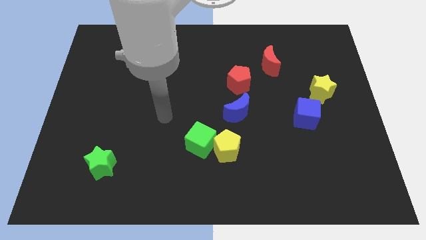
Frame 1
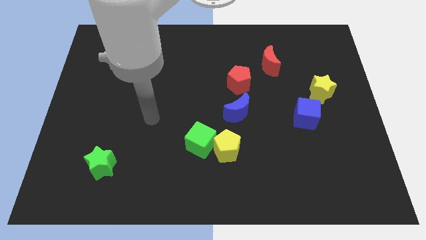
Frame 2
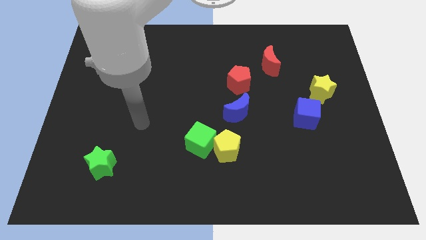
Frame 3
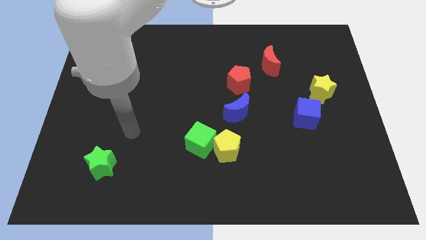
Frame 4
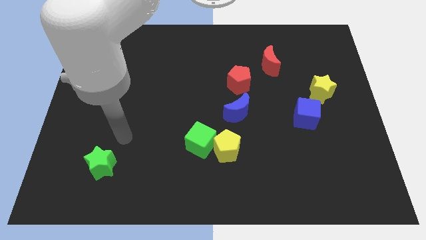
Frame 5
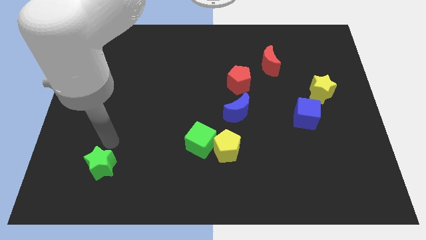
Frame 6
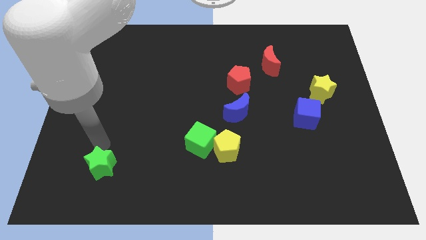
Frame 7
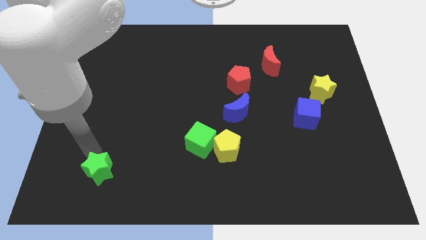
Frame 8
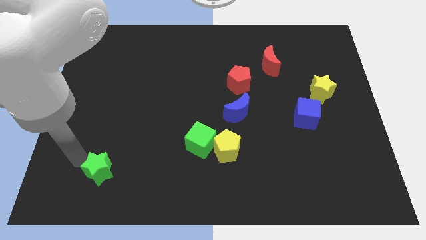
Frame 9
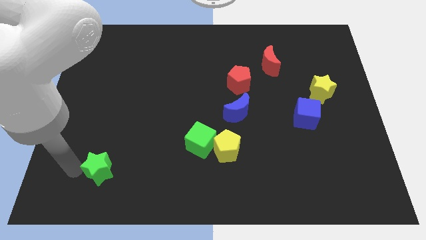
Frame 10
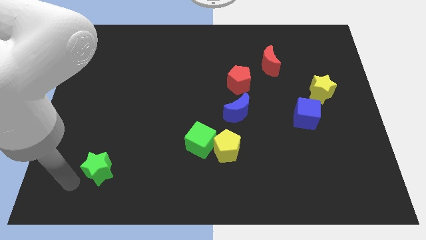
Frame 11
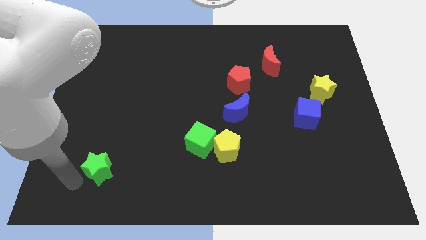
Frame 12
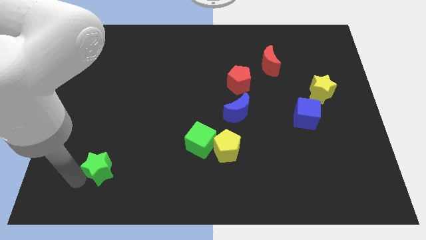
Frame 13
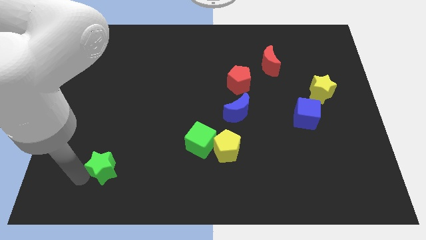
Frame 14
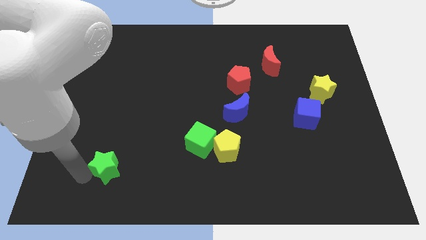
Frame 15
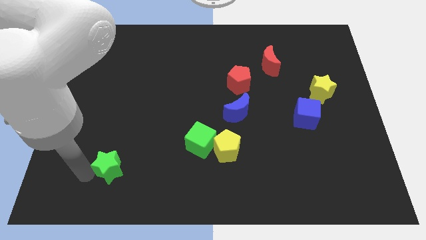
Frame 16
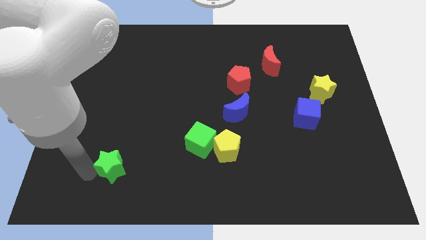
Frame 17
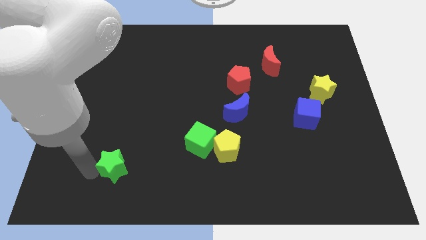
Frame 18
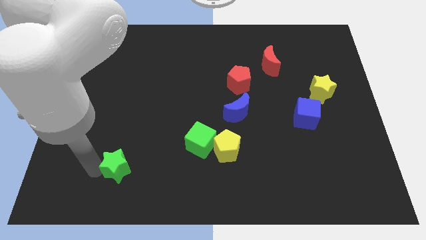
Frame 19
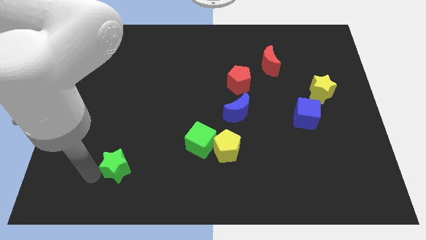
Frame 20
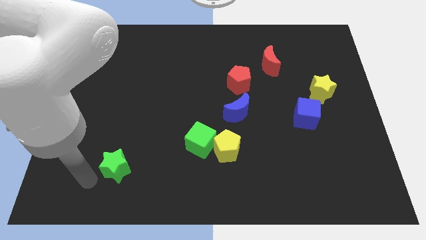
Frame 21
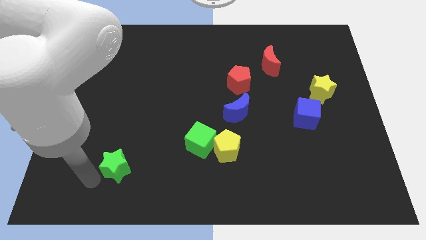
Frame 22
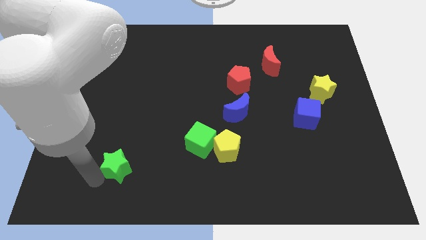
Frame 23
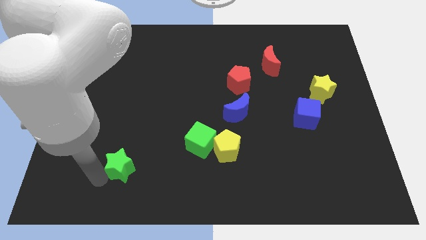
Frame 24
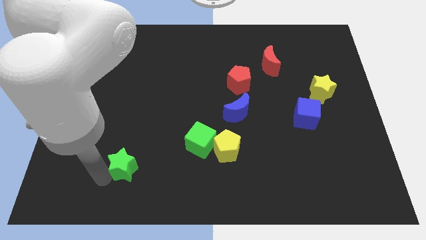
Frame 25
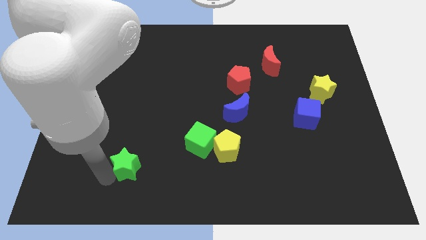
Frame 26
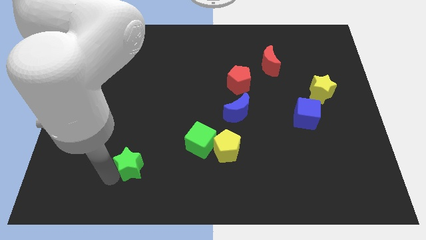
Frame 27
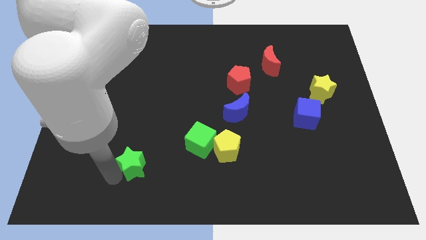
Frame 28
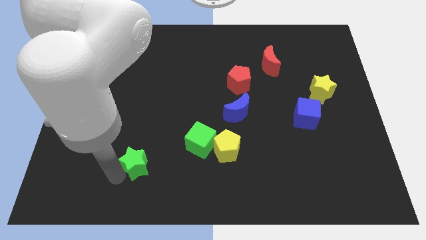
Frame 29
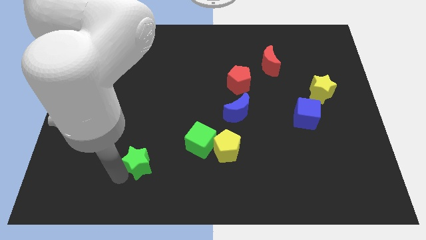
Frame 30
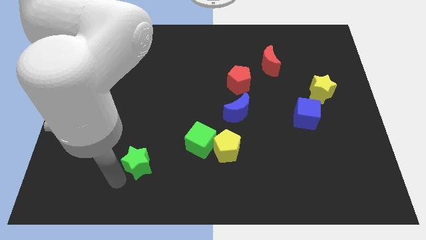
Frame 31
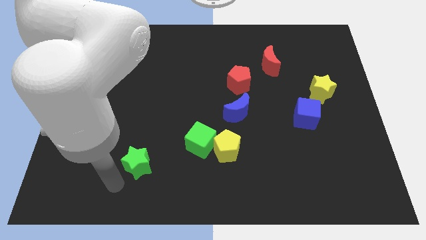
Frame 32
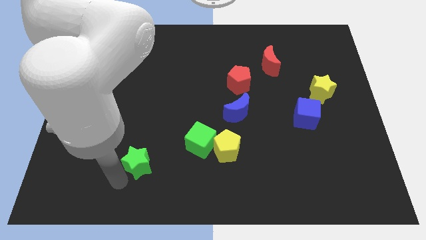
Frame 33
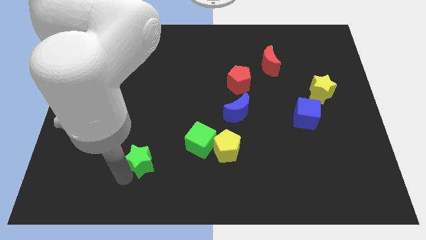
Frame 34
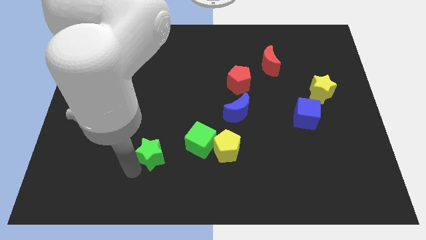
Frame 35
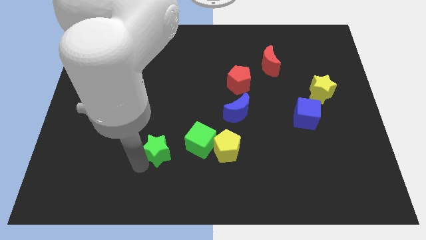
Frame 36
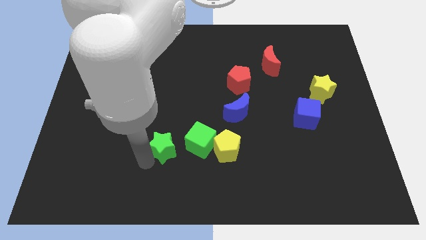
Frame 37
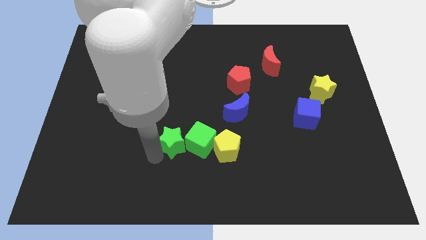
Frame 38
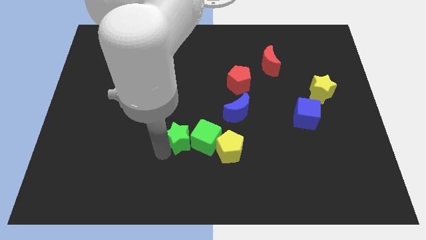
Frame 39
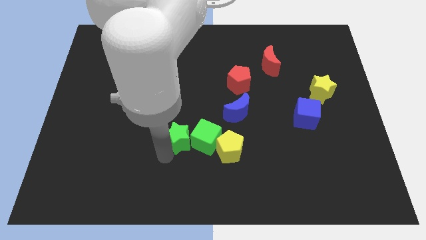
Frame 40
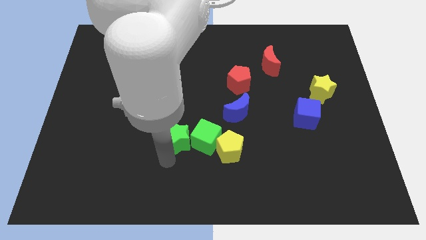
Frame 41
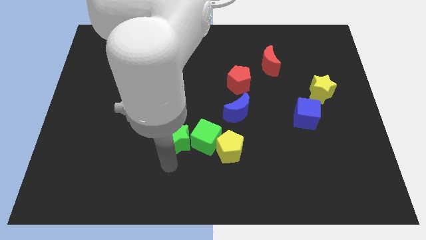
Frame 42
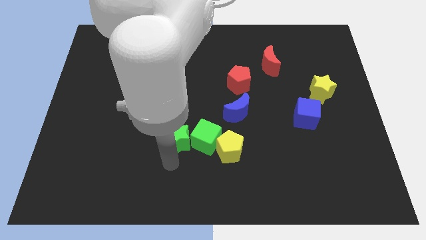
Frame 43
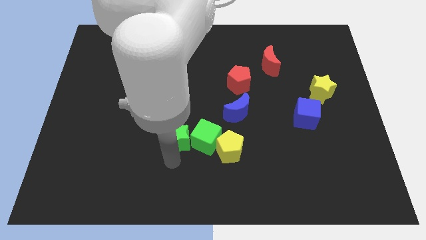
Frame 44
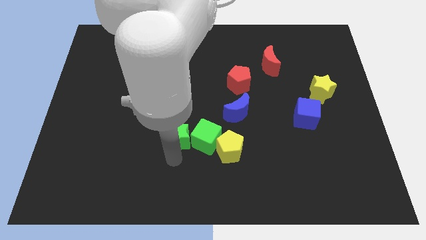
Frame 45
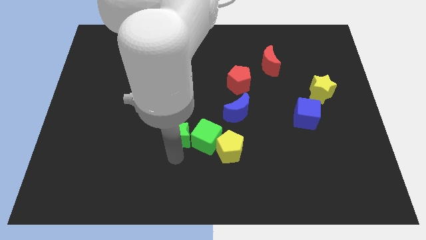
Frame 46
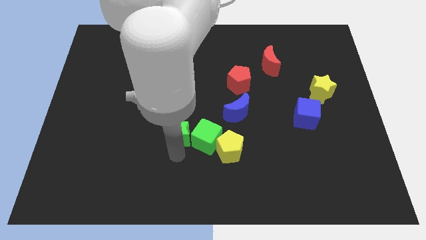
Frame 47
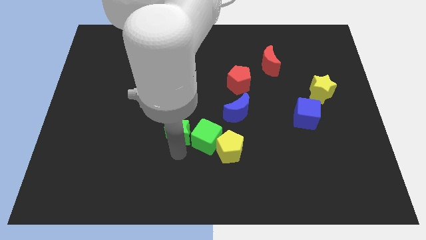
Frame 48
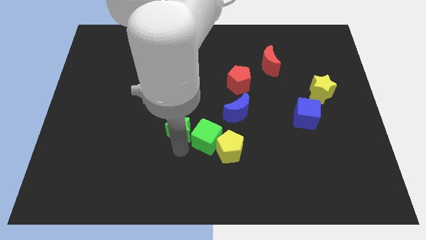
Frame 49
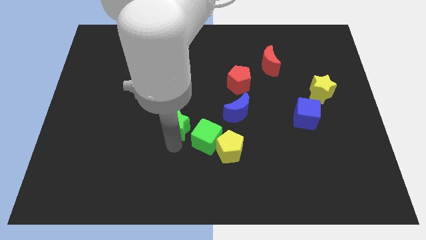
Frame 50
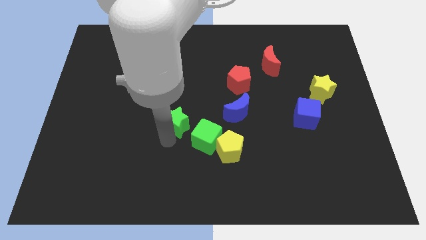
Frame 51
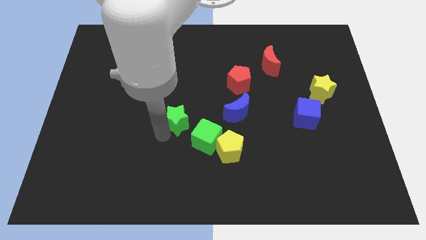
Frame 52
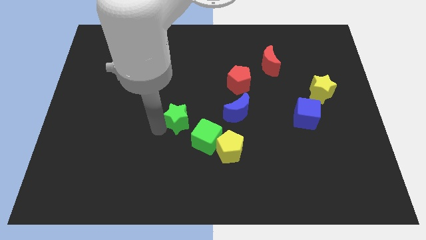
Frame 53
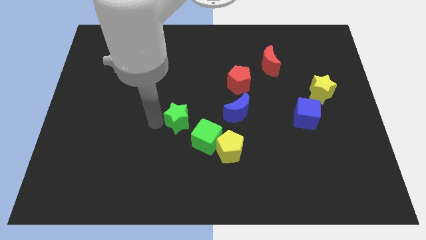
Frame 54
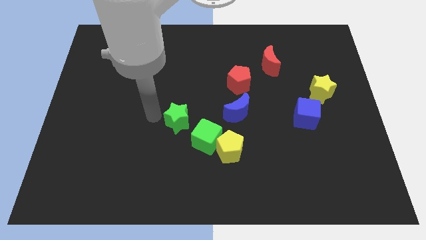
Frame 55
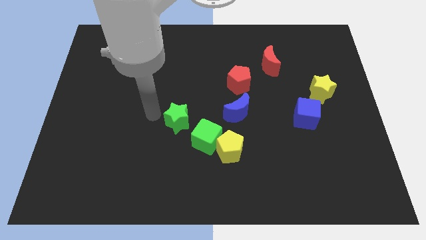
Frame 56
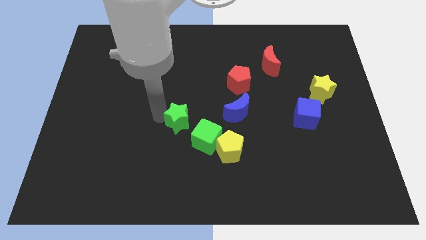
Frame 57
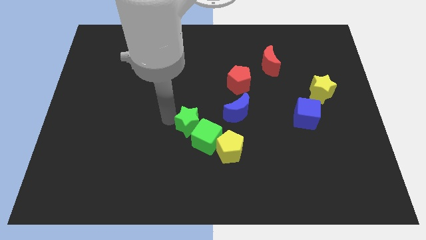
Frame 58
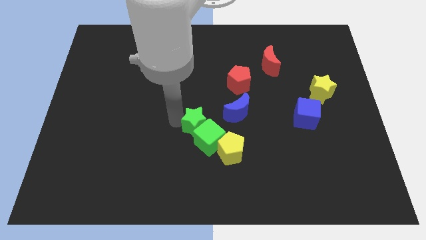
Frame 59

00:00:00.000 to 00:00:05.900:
push the green star to the bottom left side of the blue moon

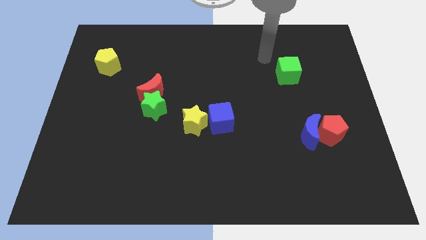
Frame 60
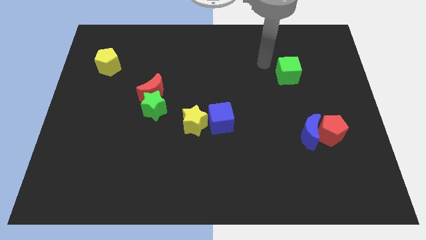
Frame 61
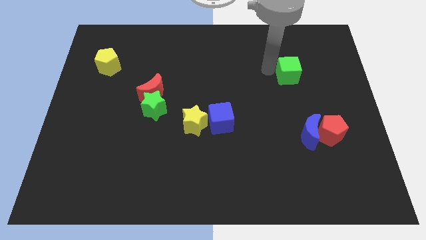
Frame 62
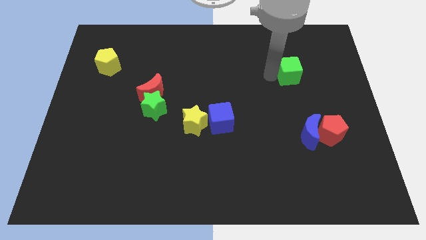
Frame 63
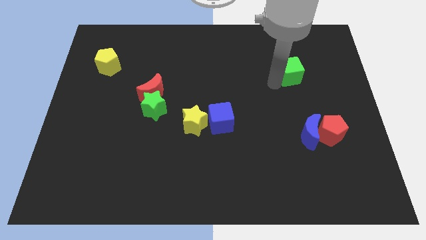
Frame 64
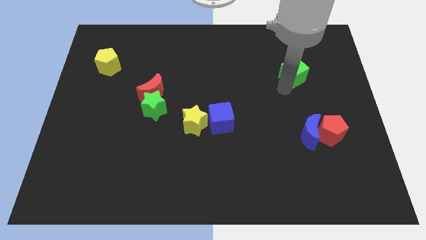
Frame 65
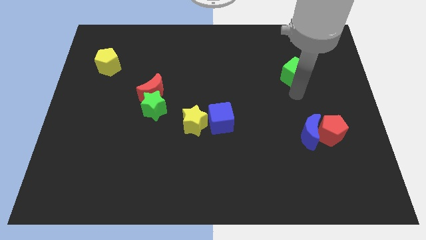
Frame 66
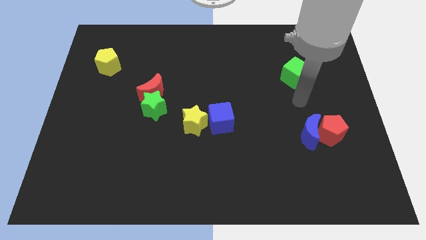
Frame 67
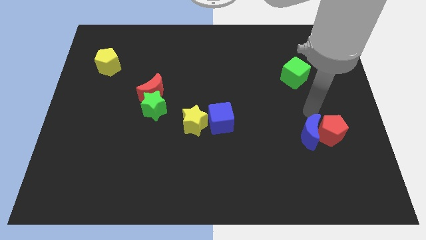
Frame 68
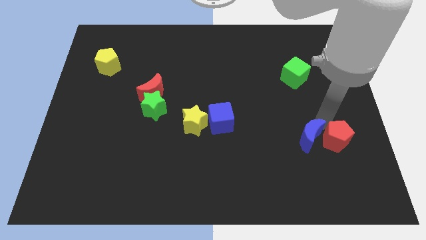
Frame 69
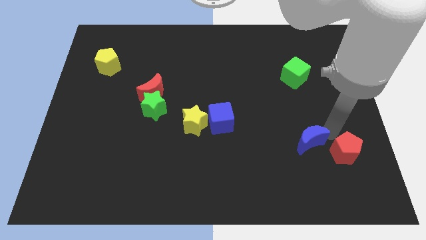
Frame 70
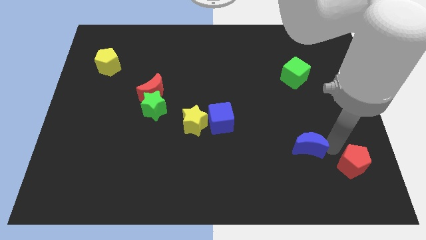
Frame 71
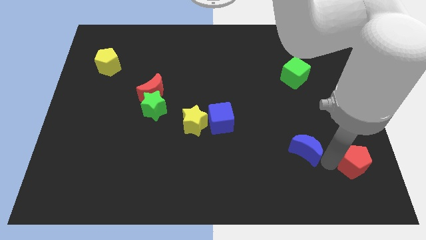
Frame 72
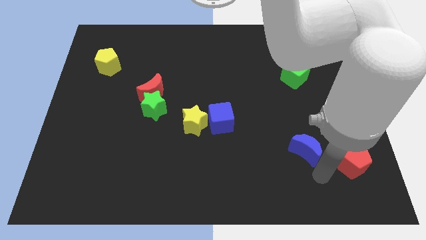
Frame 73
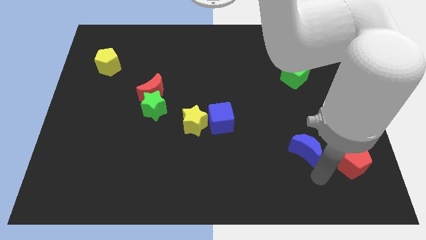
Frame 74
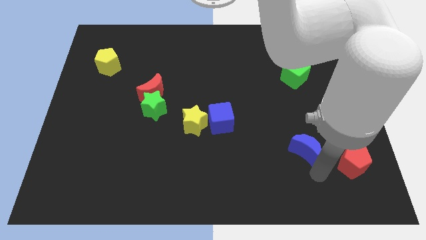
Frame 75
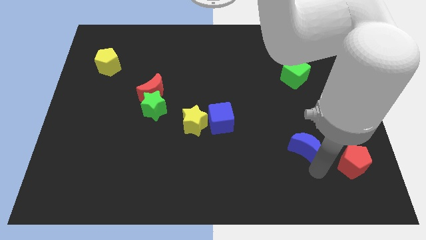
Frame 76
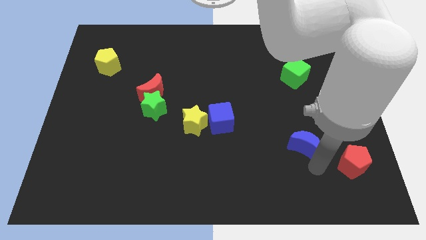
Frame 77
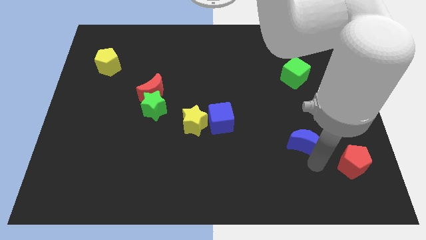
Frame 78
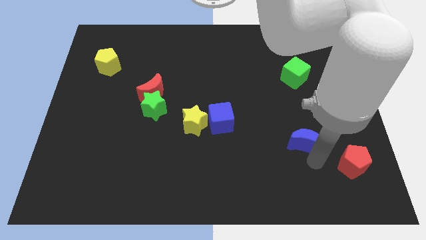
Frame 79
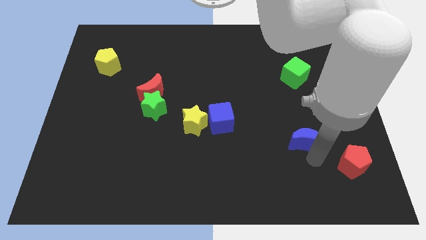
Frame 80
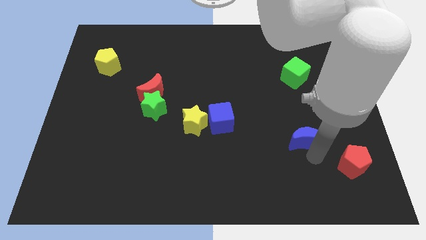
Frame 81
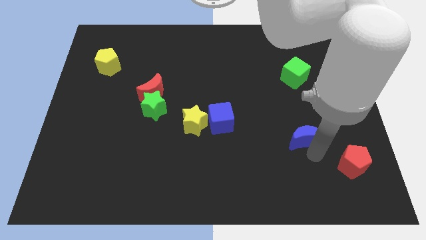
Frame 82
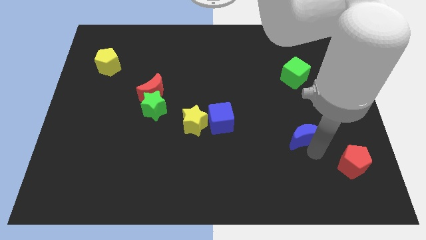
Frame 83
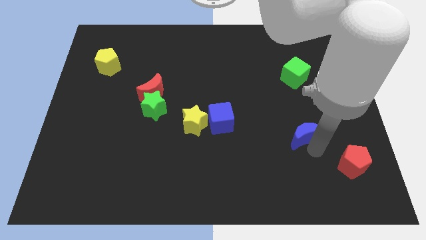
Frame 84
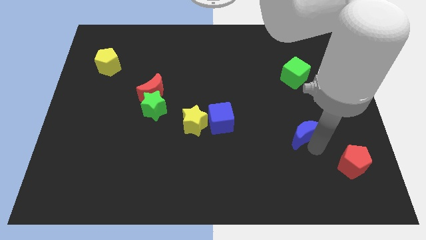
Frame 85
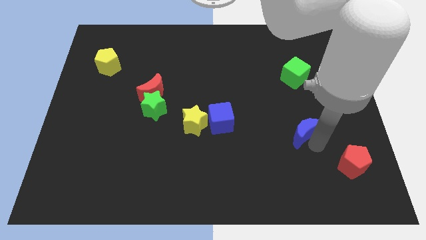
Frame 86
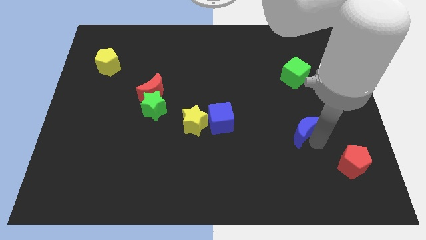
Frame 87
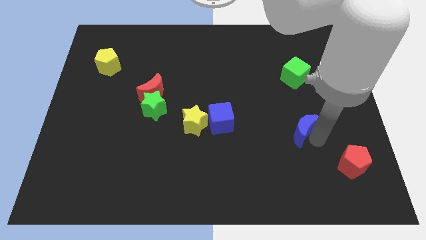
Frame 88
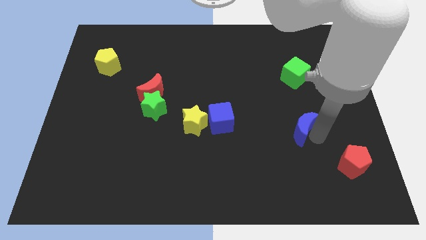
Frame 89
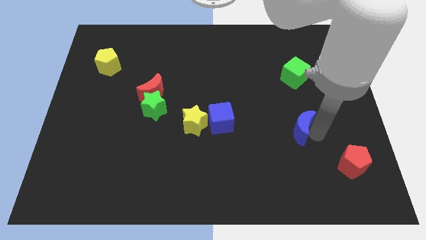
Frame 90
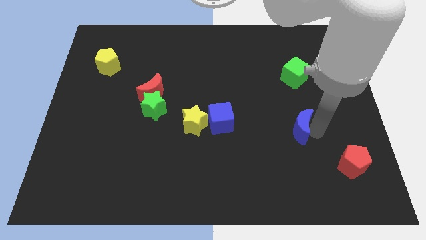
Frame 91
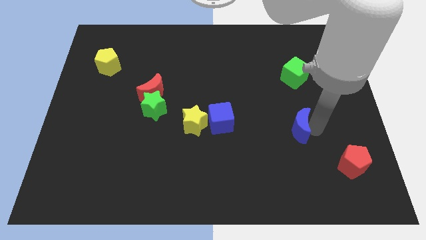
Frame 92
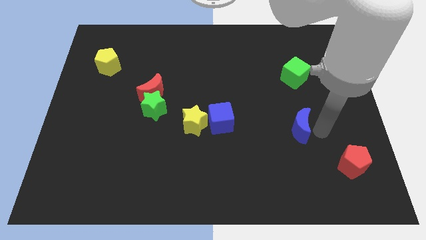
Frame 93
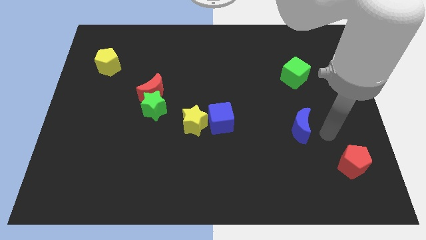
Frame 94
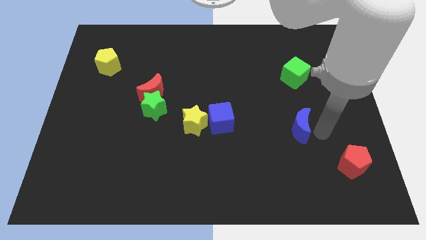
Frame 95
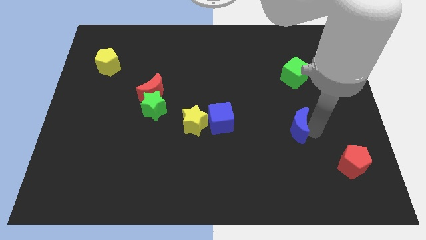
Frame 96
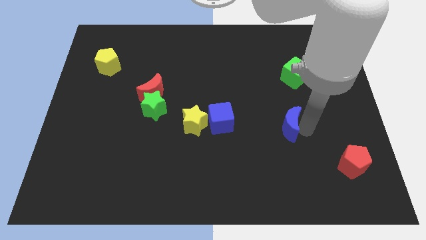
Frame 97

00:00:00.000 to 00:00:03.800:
move the blue moon to the right of the blue cube
